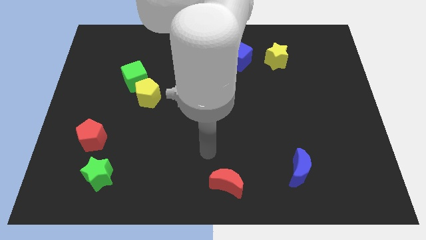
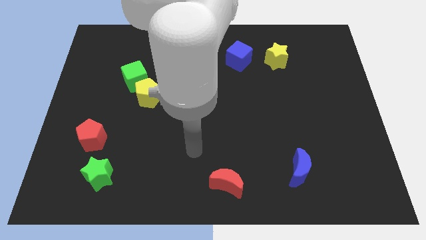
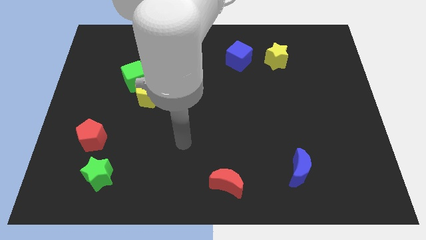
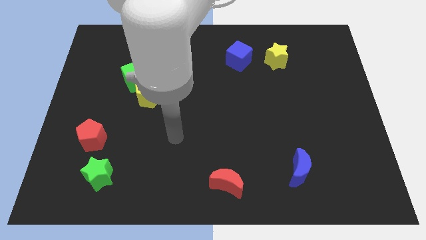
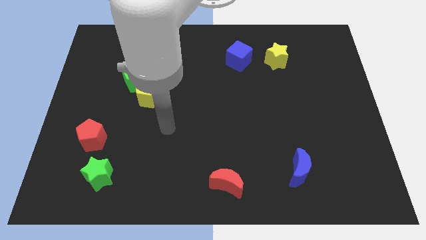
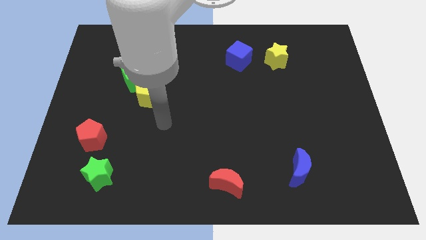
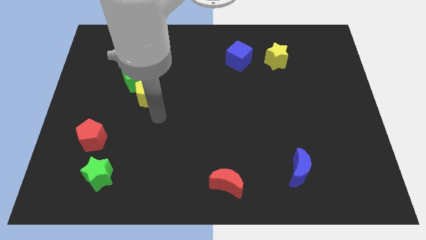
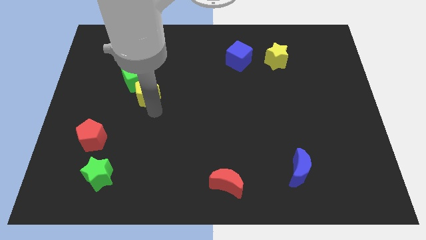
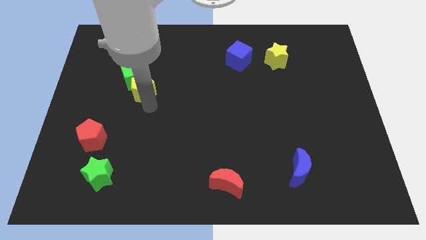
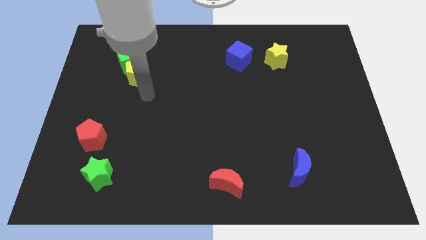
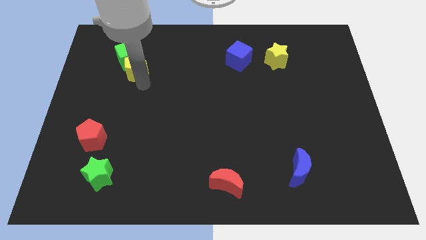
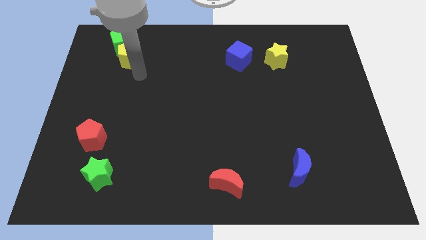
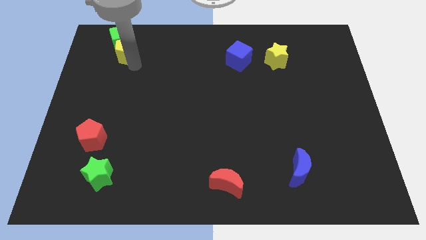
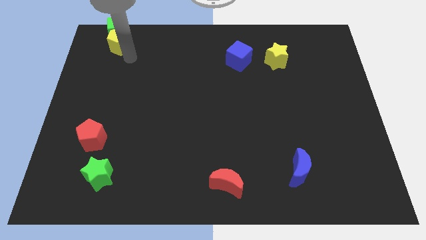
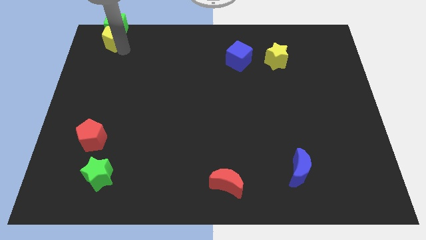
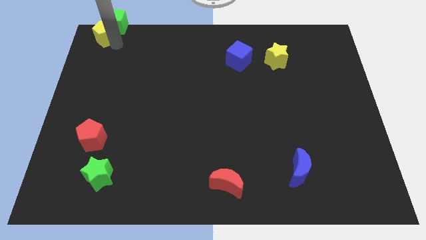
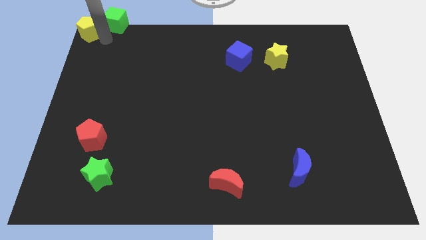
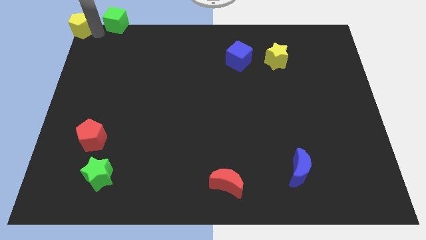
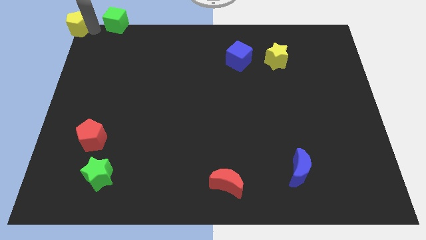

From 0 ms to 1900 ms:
pull the green cube apart from the yellow pentagon

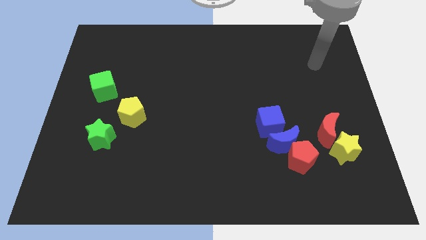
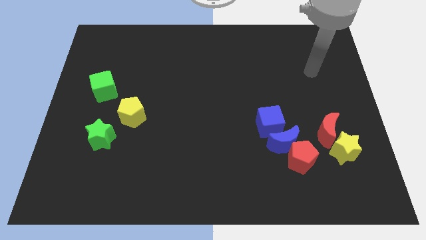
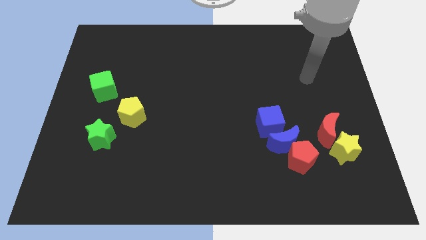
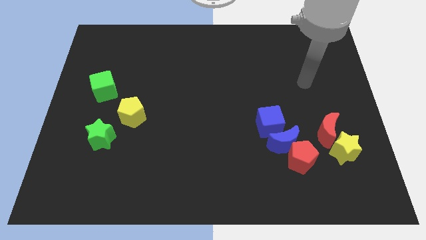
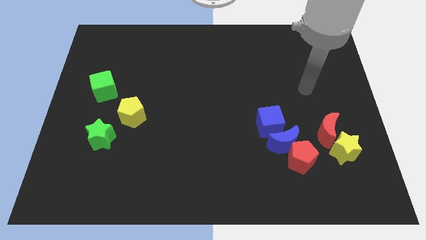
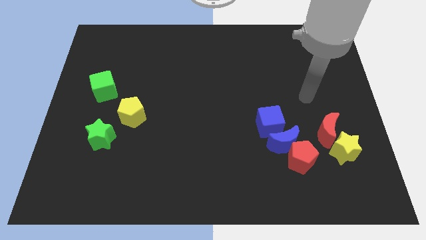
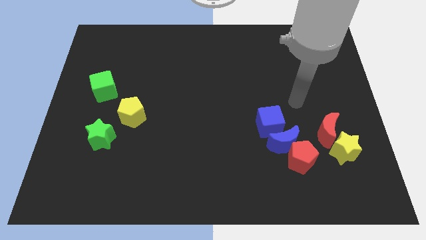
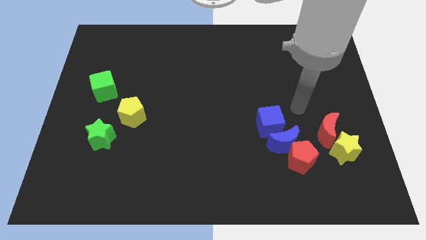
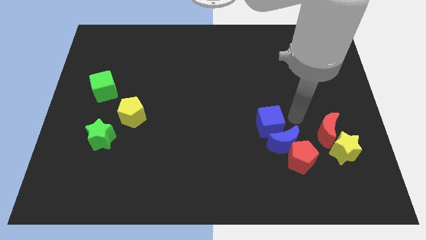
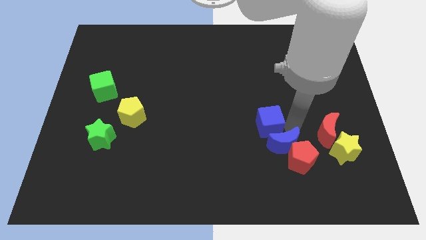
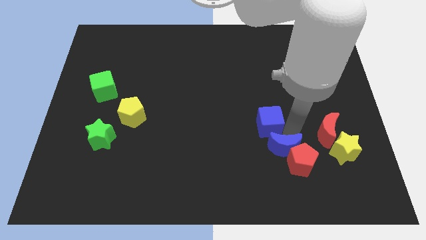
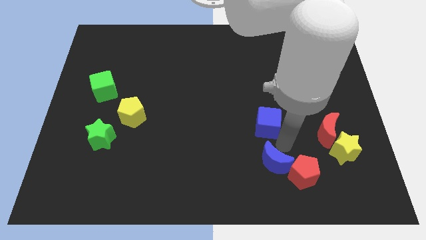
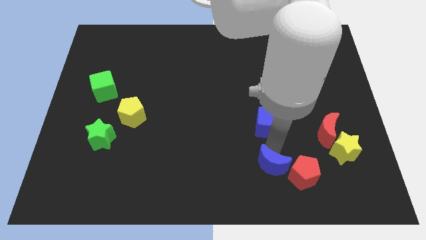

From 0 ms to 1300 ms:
move the blue cube away from the blue moon

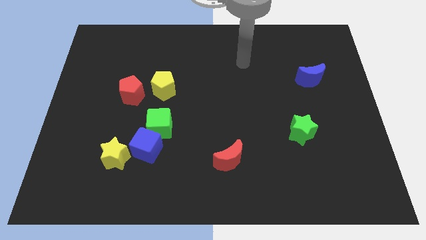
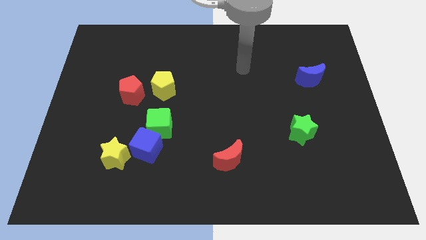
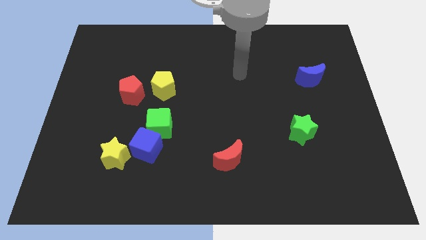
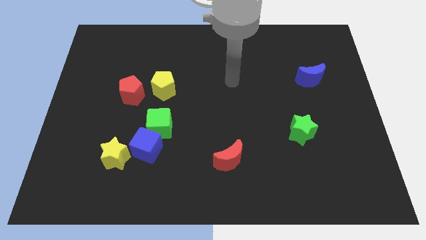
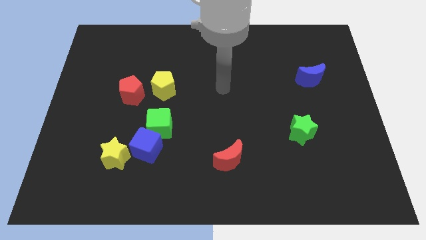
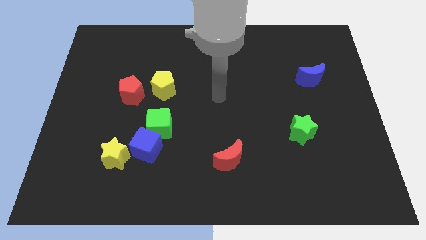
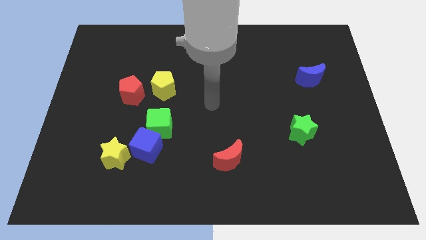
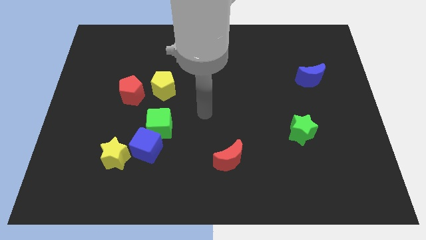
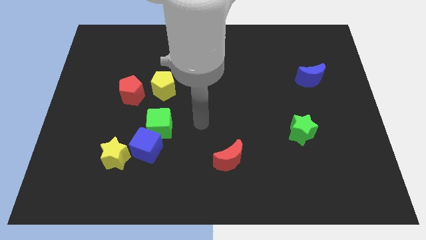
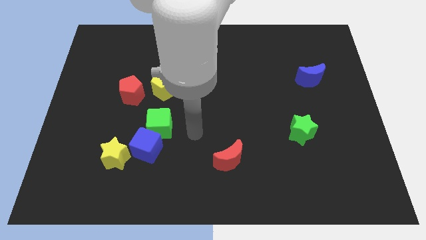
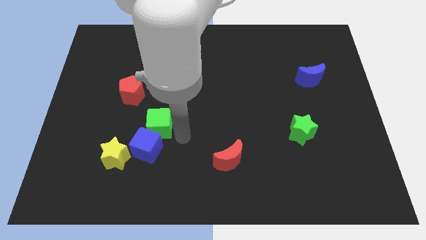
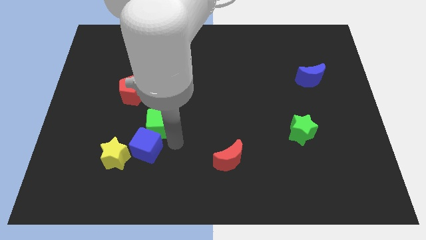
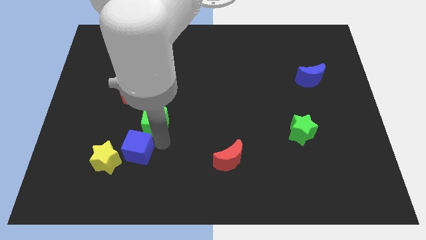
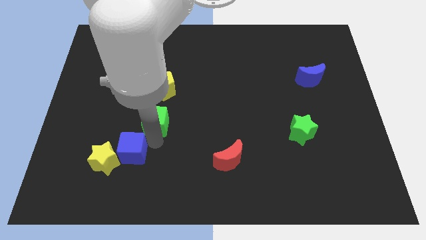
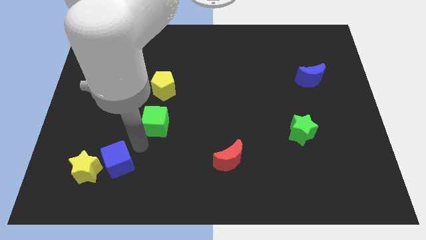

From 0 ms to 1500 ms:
pull the green cube apart from the blue cube

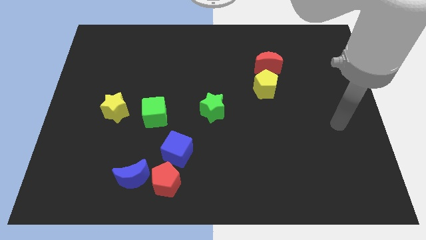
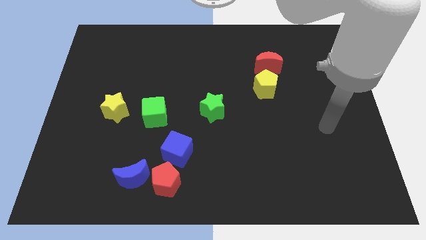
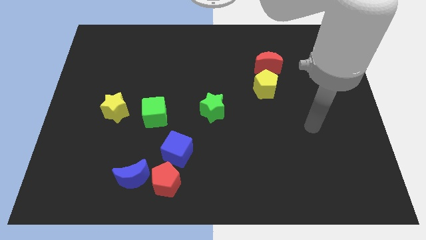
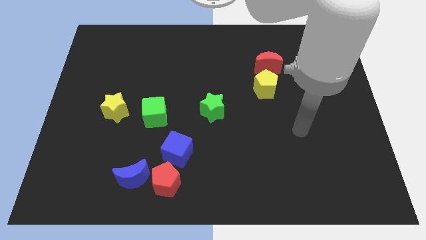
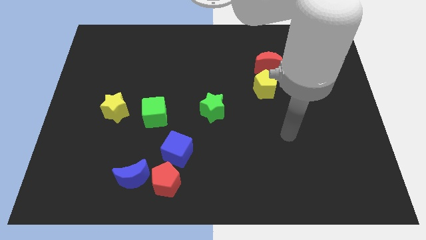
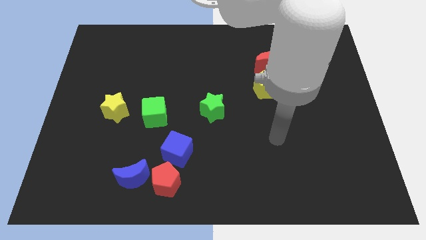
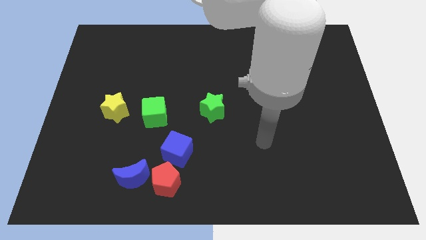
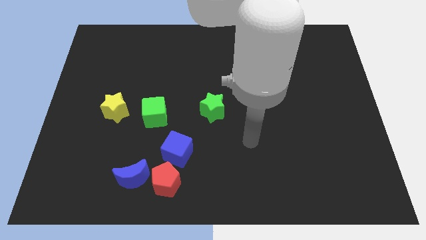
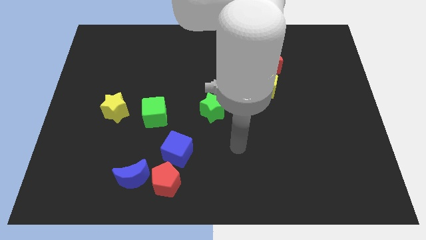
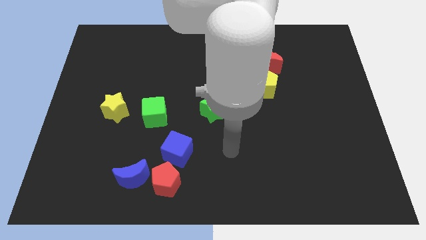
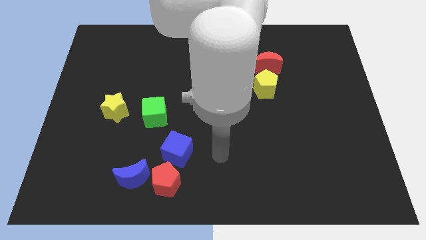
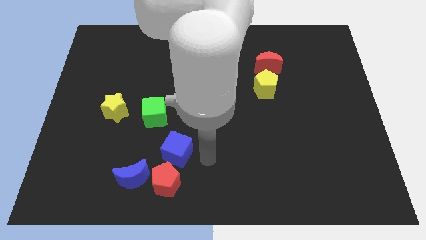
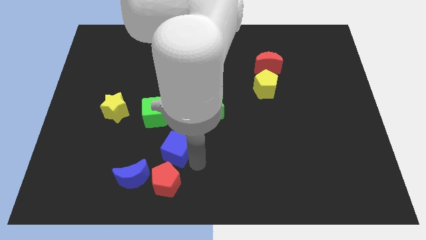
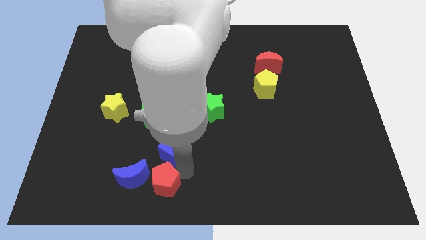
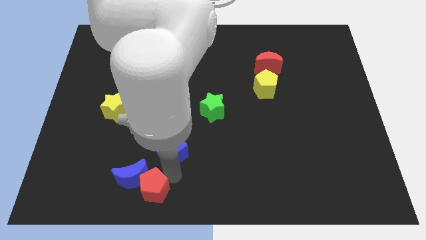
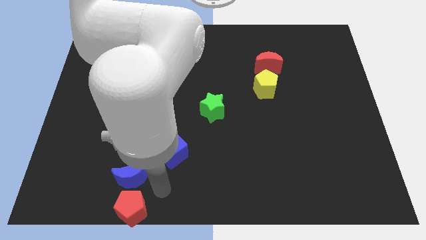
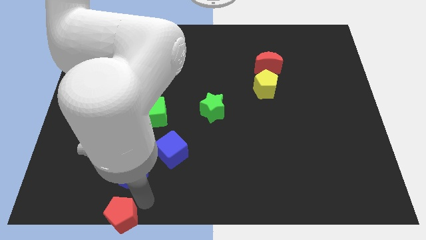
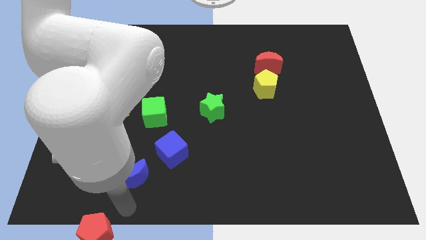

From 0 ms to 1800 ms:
move the blue moon away from the red pentagon

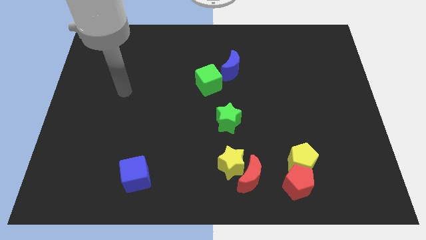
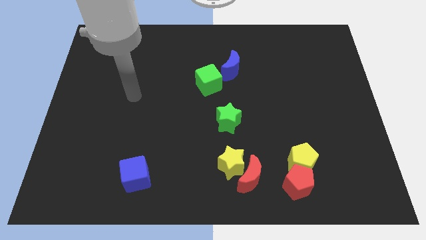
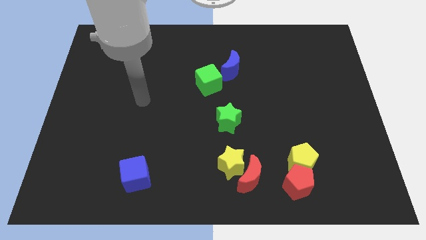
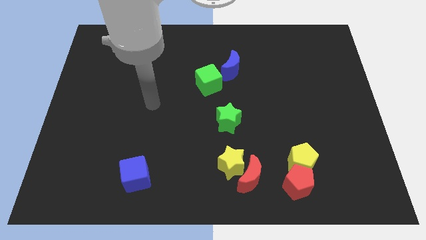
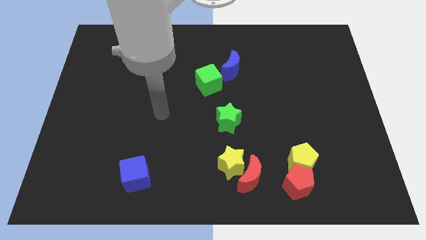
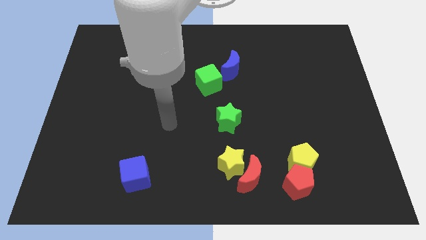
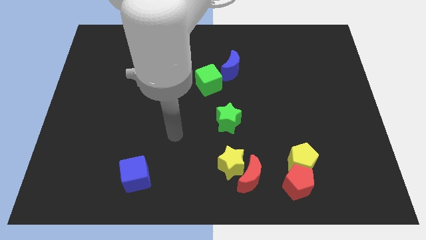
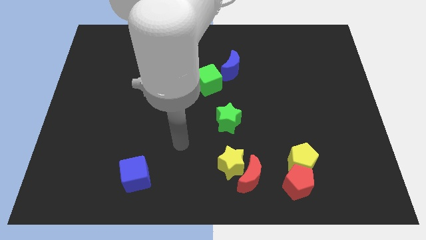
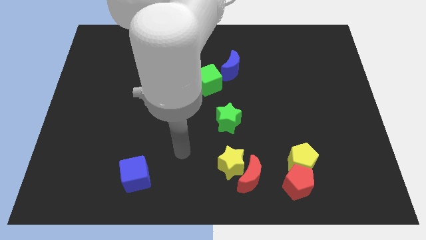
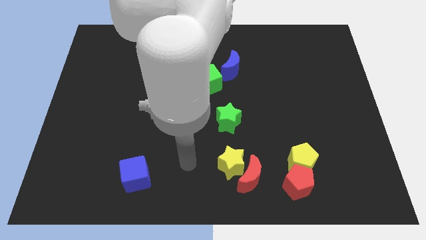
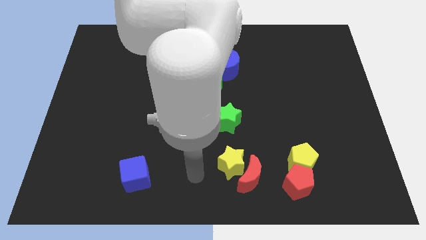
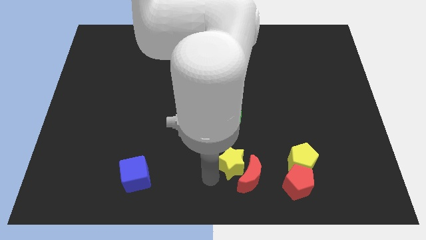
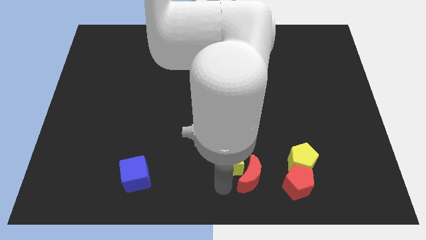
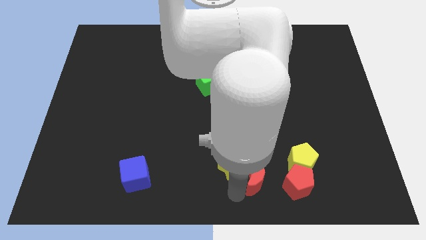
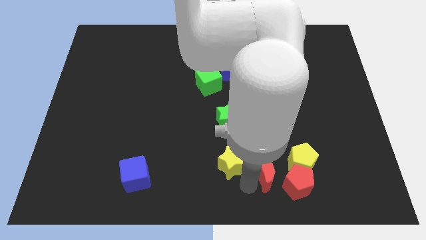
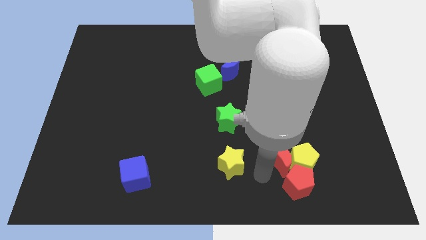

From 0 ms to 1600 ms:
pull the yellow star apart from the red moon

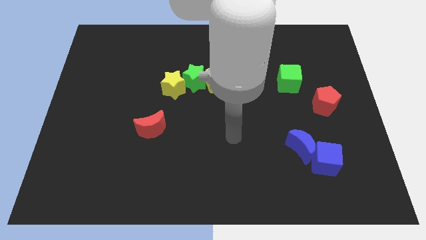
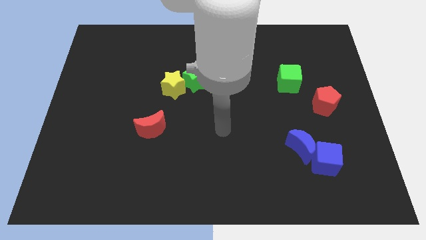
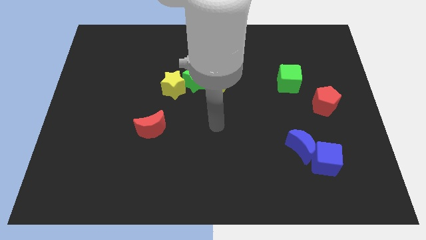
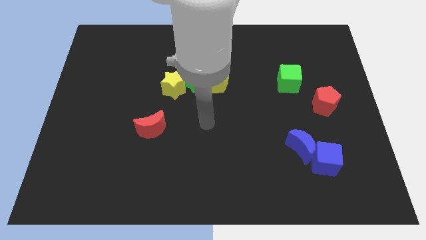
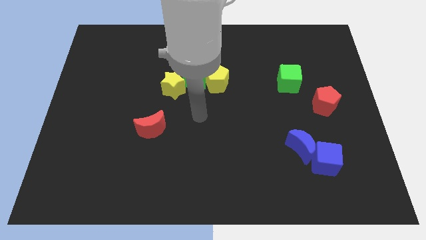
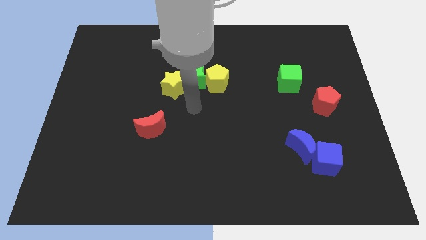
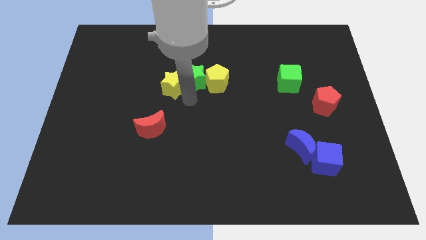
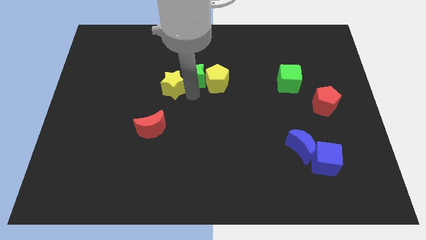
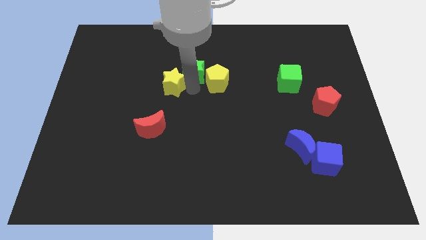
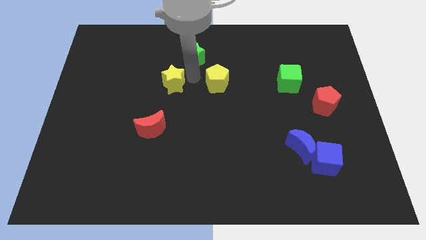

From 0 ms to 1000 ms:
move the yellow pentagon away from the green star

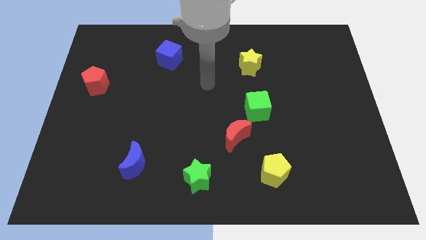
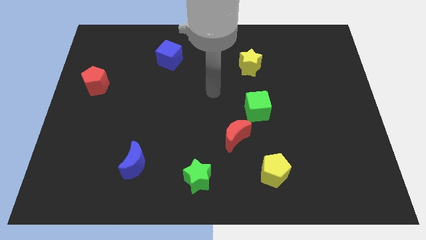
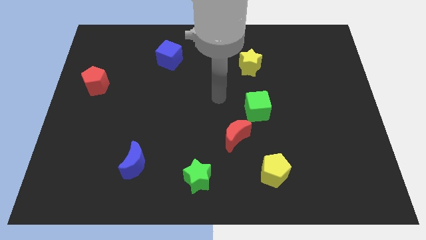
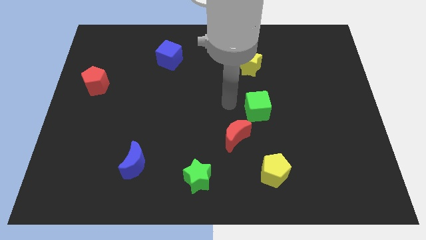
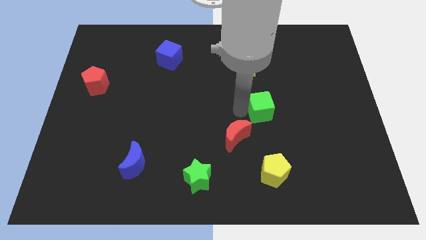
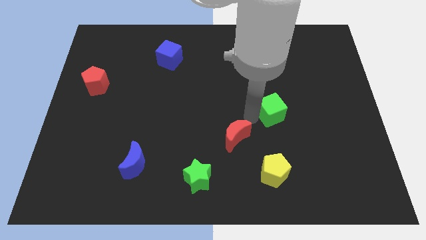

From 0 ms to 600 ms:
separate the red moon from the green cube
